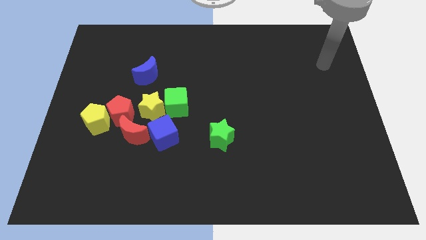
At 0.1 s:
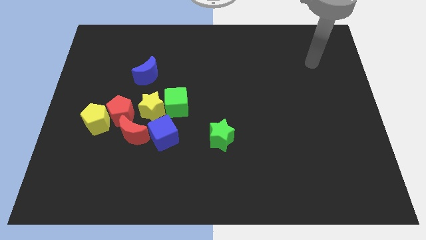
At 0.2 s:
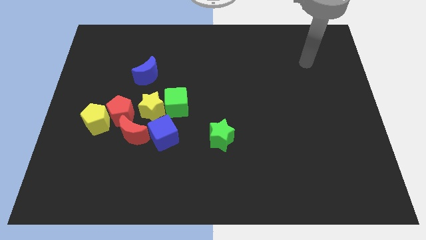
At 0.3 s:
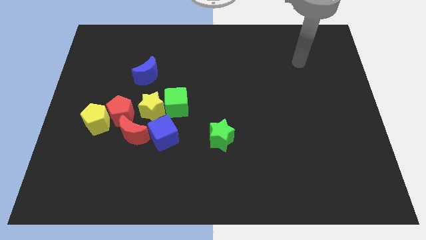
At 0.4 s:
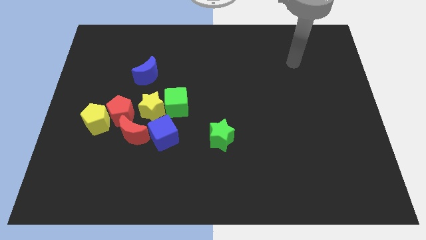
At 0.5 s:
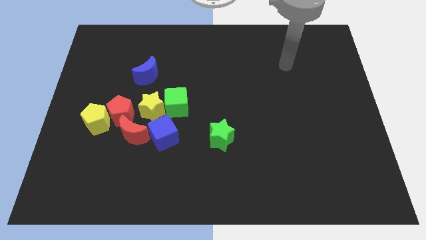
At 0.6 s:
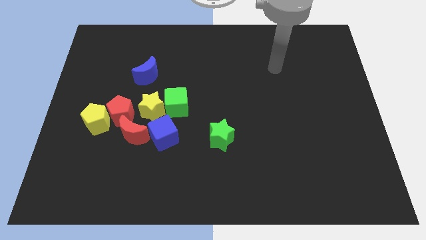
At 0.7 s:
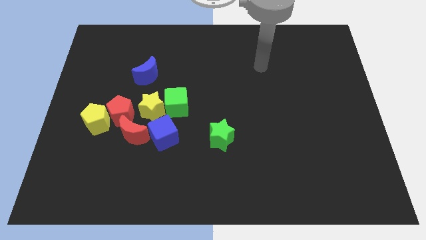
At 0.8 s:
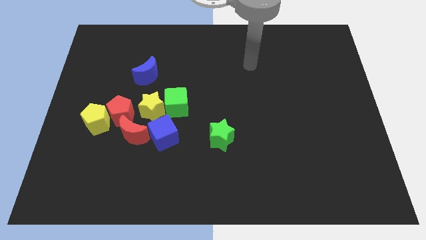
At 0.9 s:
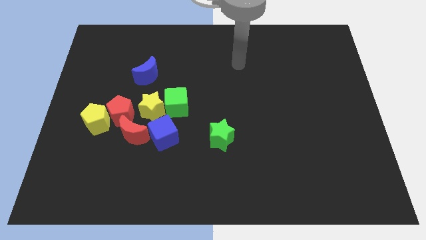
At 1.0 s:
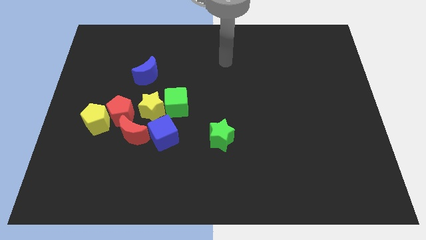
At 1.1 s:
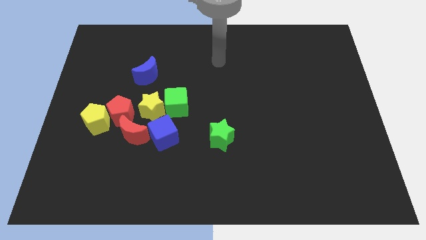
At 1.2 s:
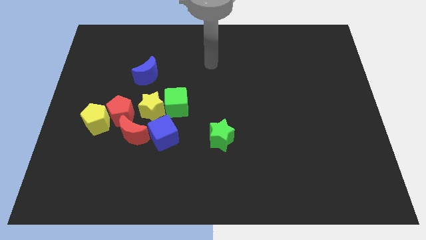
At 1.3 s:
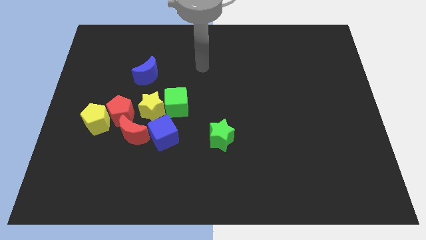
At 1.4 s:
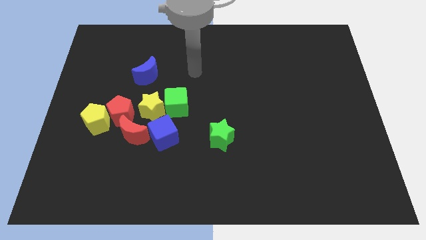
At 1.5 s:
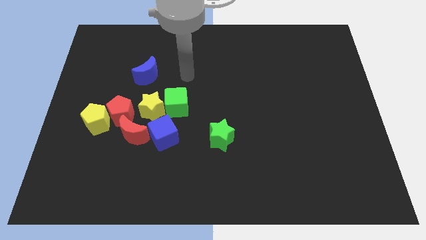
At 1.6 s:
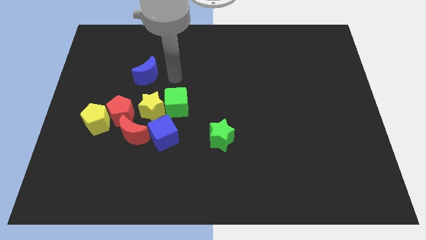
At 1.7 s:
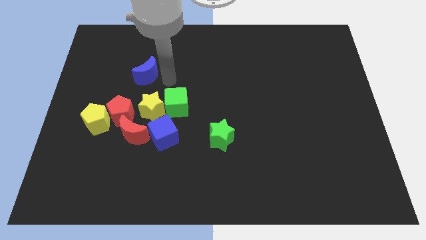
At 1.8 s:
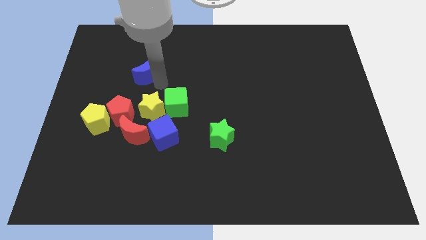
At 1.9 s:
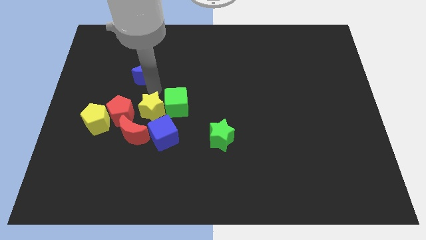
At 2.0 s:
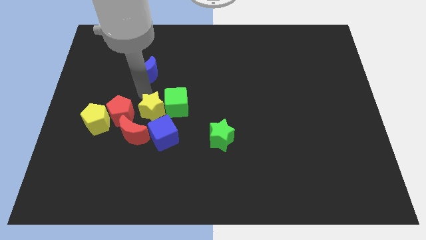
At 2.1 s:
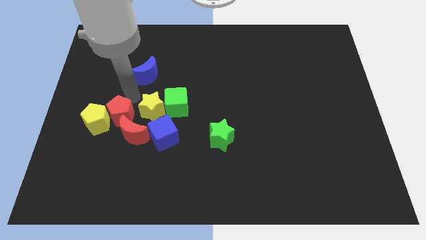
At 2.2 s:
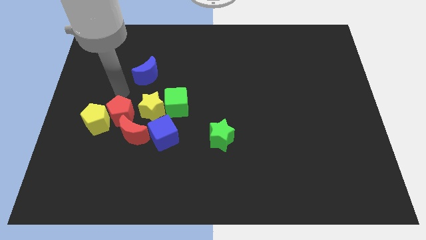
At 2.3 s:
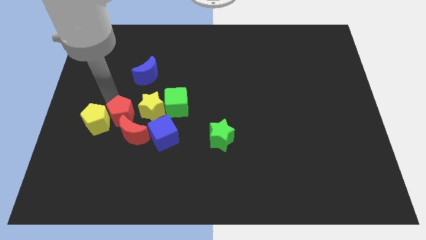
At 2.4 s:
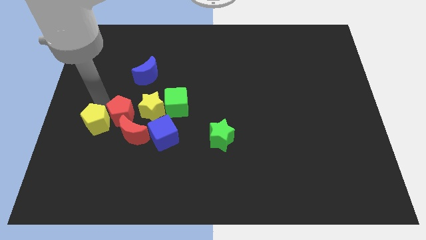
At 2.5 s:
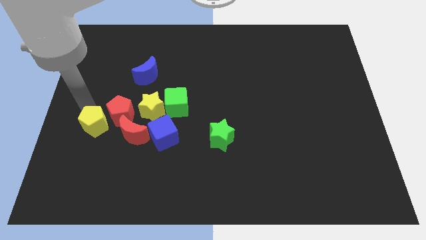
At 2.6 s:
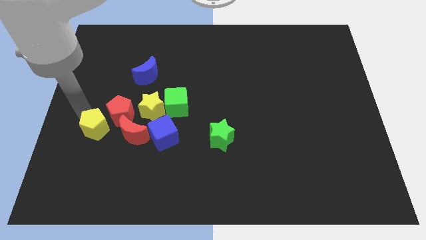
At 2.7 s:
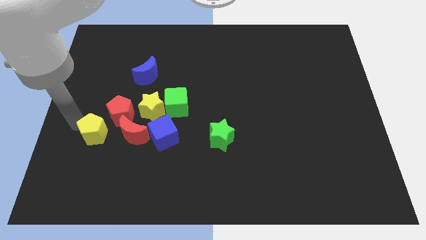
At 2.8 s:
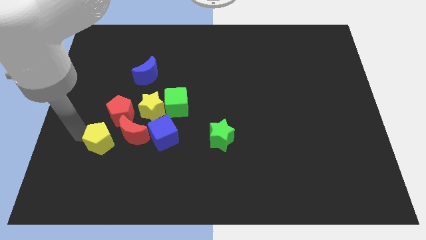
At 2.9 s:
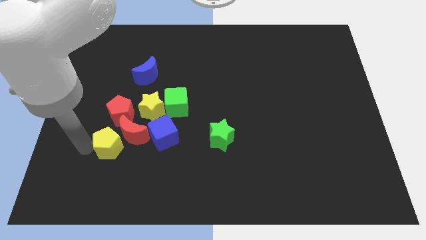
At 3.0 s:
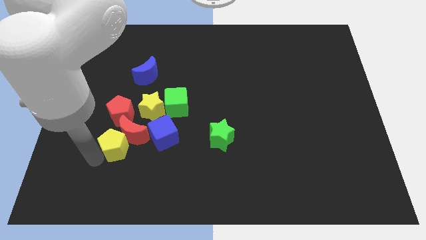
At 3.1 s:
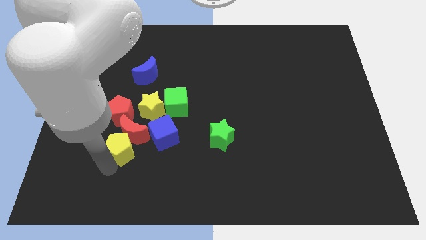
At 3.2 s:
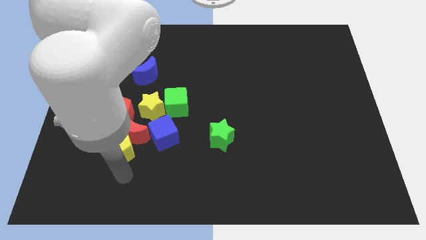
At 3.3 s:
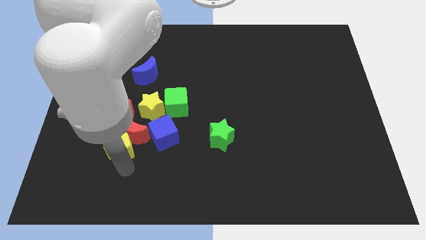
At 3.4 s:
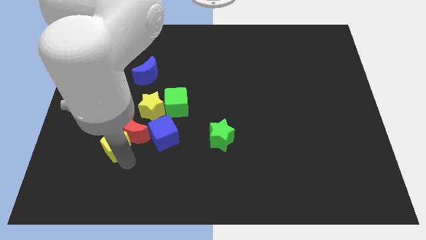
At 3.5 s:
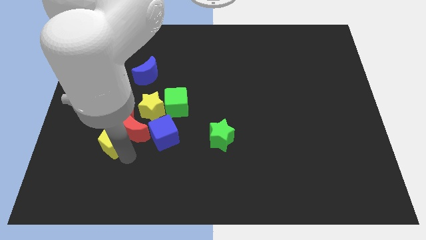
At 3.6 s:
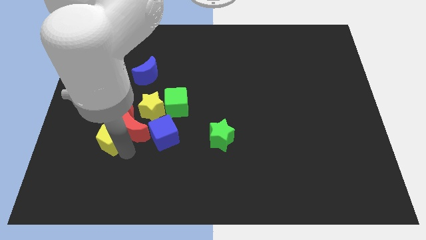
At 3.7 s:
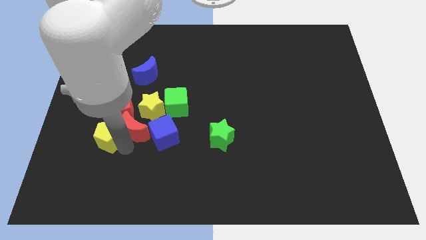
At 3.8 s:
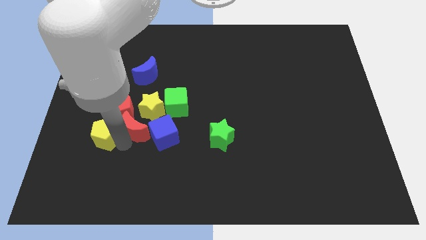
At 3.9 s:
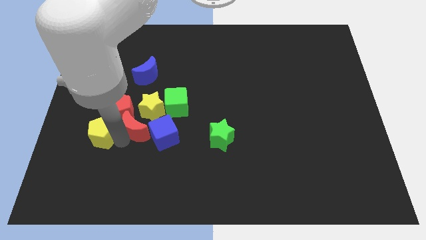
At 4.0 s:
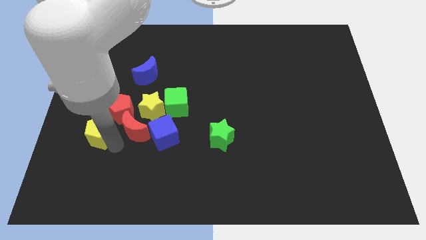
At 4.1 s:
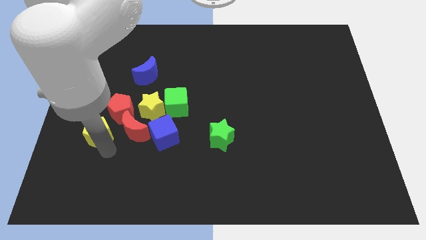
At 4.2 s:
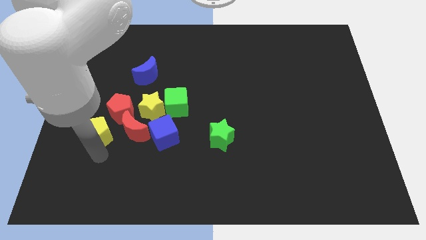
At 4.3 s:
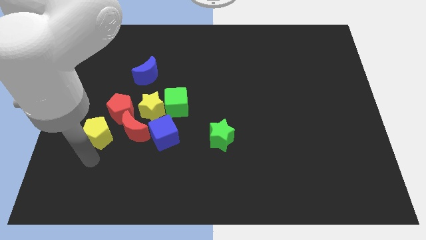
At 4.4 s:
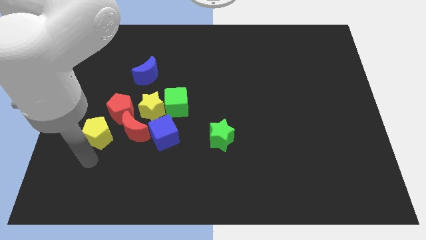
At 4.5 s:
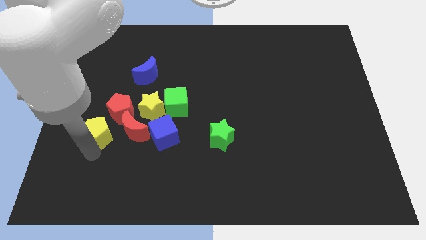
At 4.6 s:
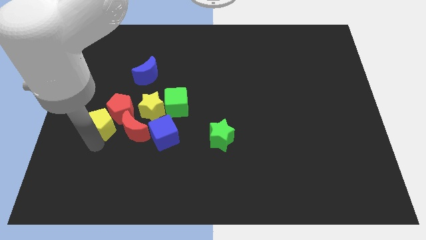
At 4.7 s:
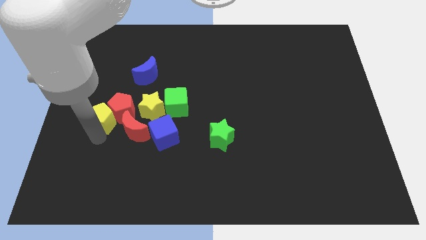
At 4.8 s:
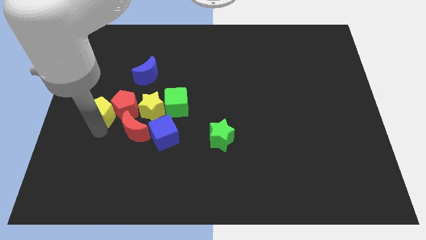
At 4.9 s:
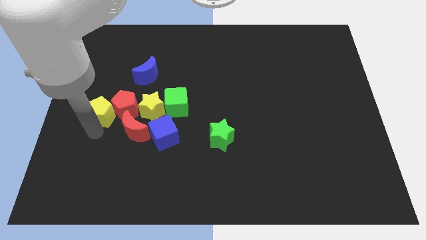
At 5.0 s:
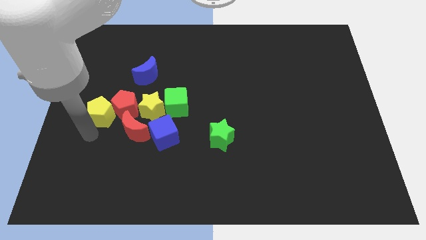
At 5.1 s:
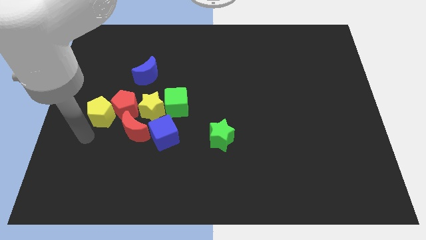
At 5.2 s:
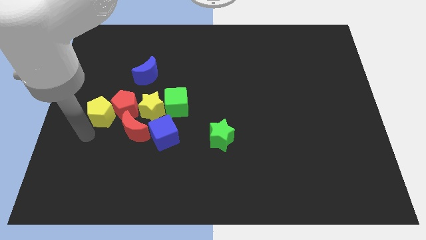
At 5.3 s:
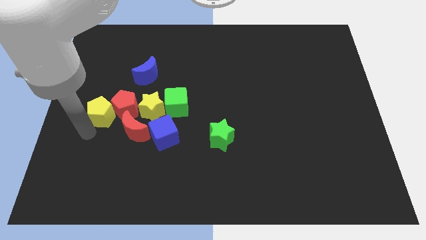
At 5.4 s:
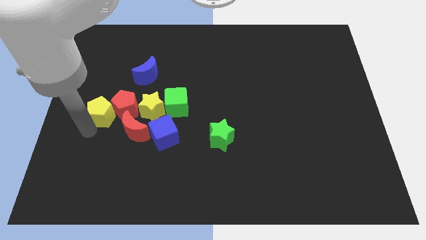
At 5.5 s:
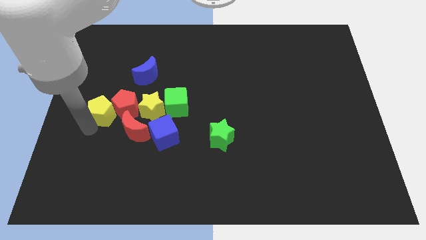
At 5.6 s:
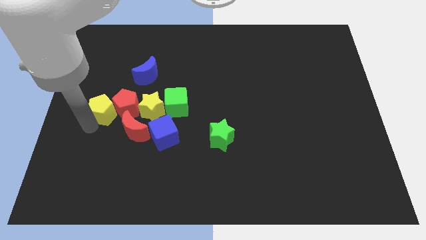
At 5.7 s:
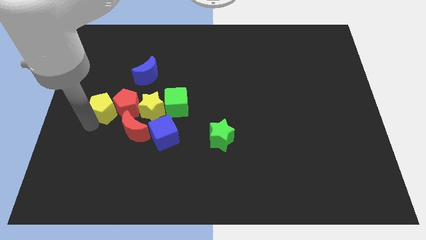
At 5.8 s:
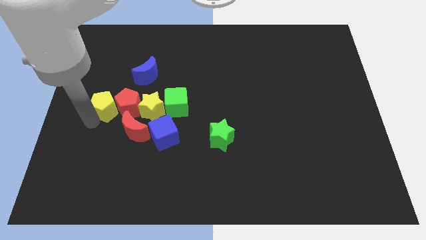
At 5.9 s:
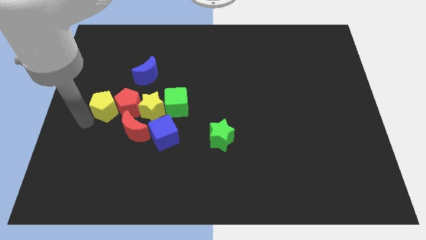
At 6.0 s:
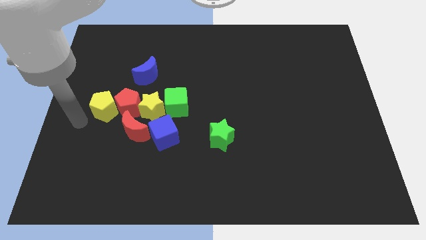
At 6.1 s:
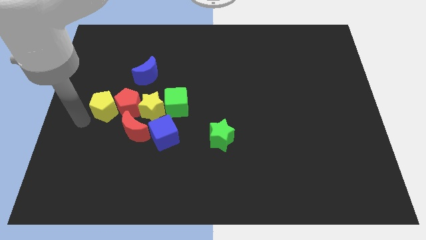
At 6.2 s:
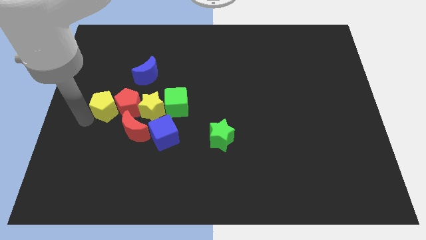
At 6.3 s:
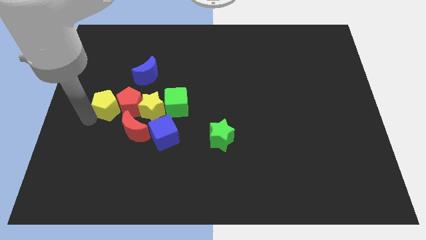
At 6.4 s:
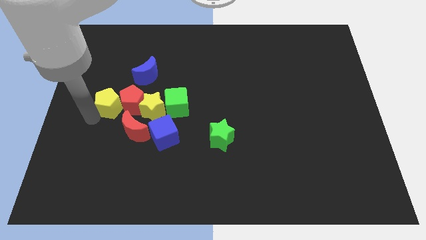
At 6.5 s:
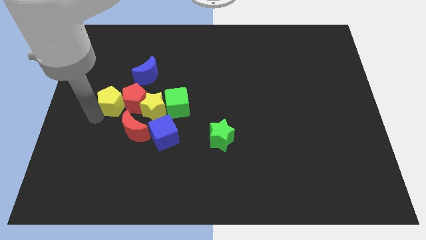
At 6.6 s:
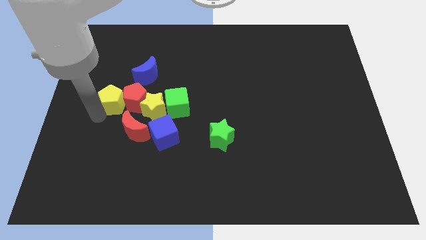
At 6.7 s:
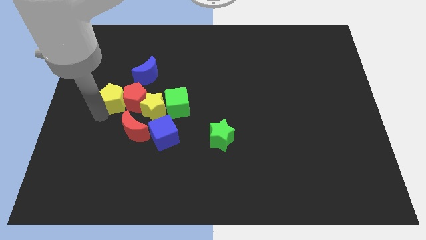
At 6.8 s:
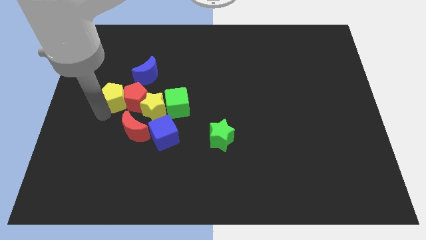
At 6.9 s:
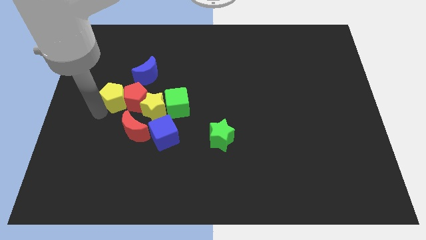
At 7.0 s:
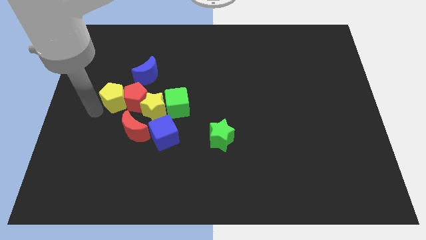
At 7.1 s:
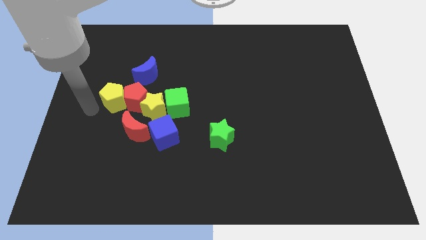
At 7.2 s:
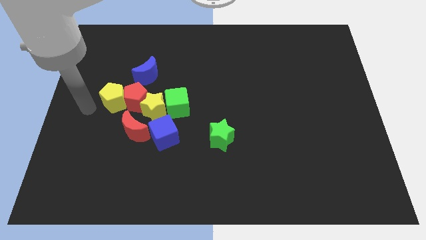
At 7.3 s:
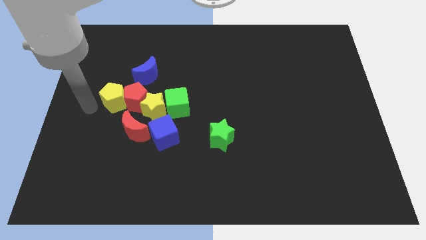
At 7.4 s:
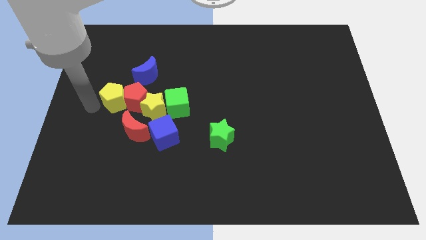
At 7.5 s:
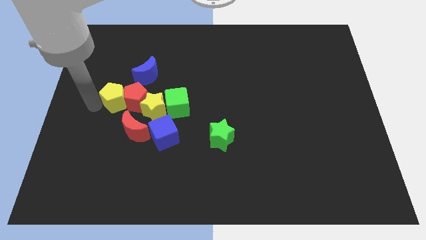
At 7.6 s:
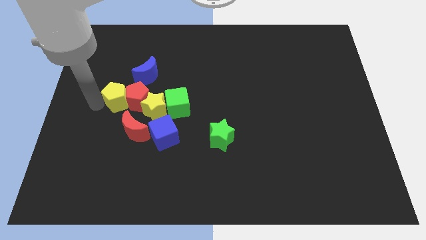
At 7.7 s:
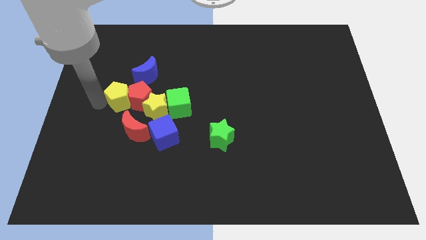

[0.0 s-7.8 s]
move the yellow pentagon diagonally up and to the right a little
